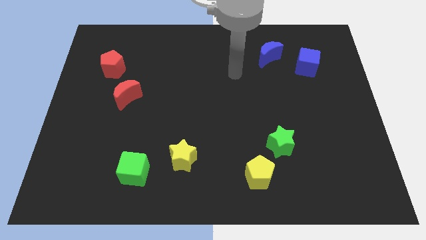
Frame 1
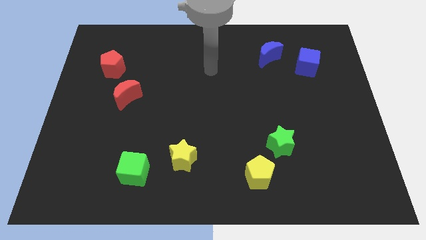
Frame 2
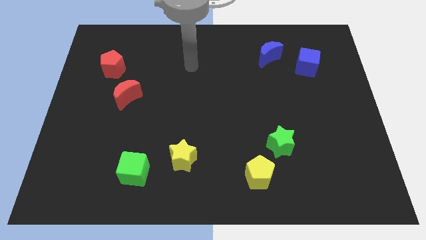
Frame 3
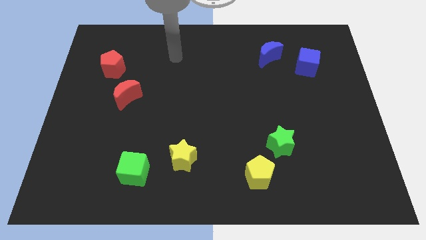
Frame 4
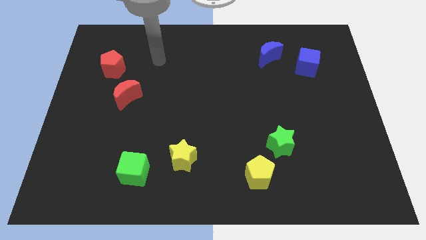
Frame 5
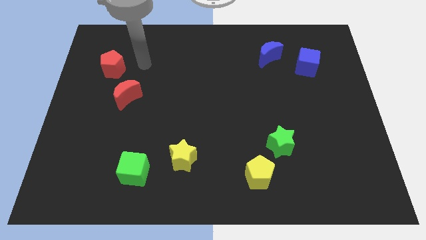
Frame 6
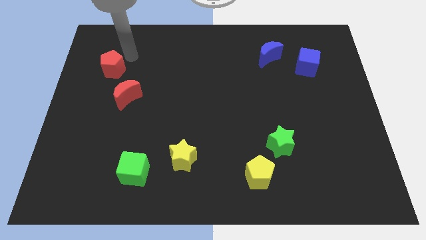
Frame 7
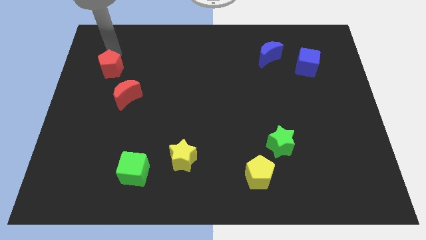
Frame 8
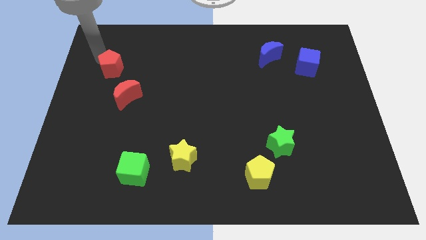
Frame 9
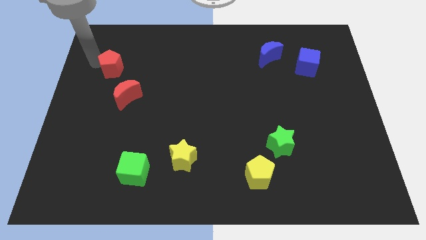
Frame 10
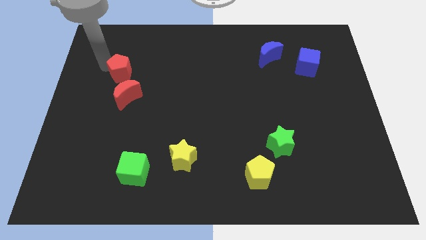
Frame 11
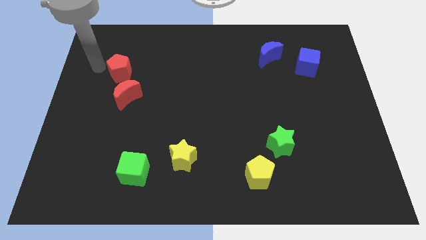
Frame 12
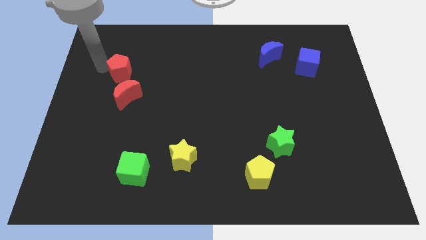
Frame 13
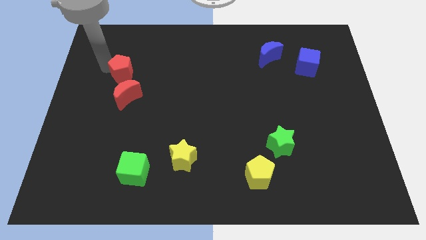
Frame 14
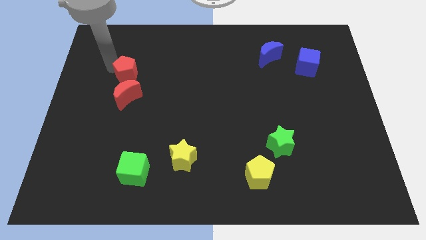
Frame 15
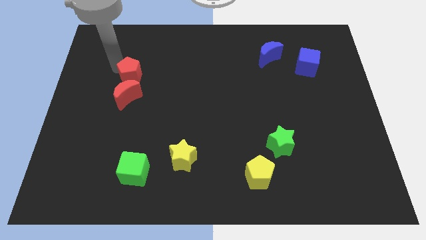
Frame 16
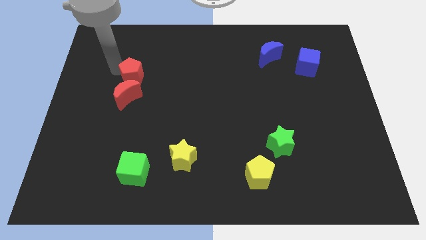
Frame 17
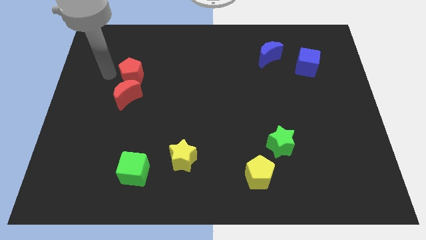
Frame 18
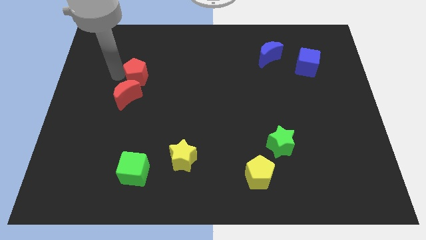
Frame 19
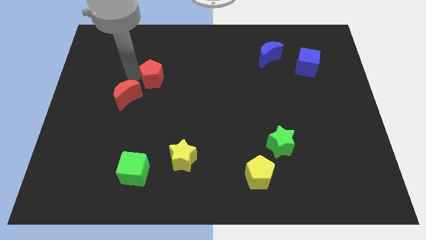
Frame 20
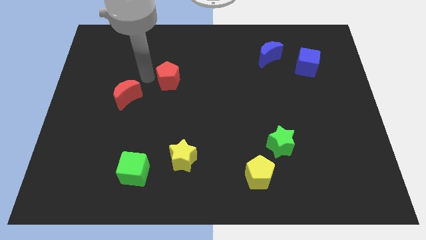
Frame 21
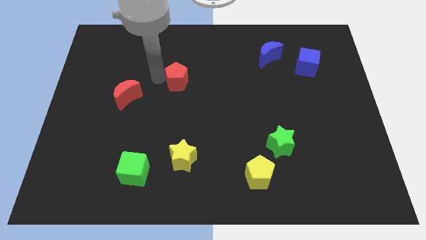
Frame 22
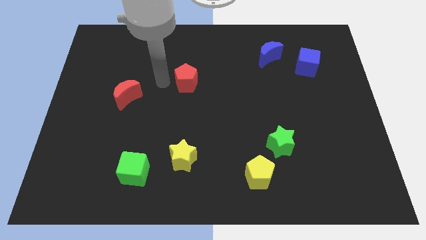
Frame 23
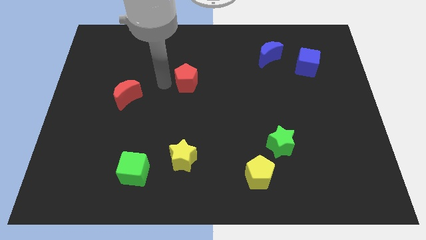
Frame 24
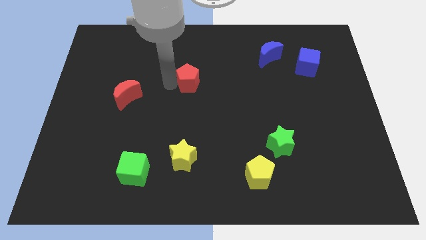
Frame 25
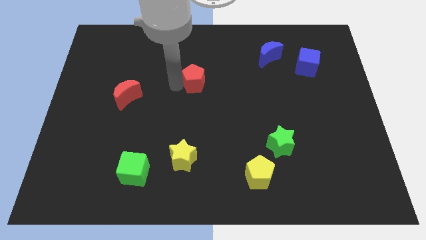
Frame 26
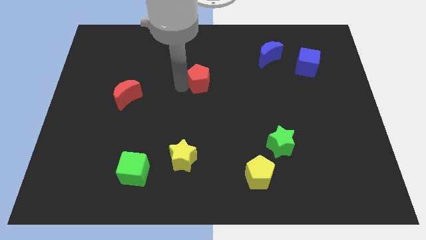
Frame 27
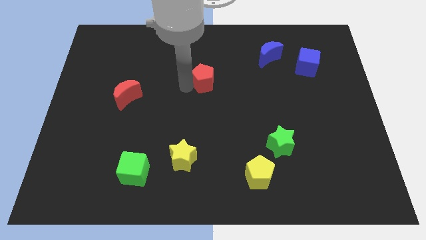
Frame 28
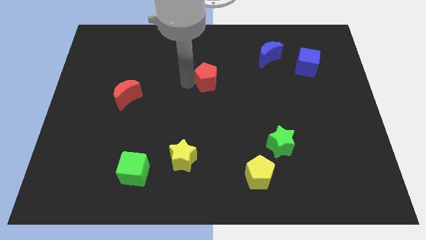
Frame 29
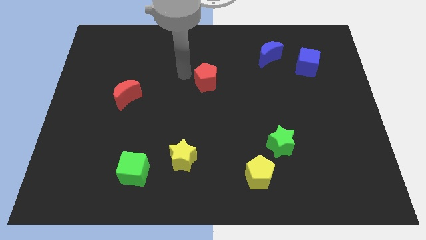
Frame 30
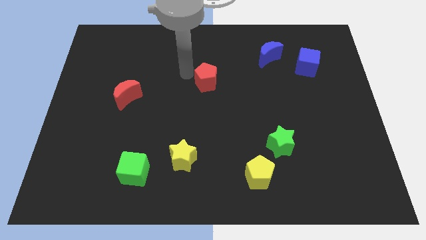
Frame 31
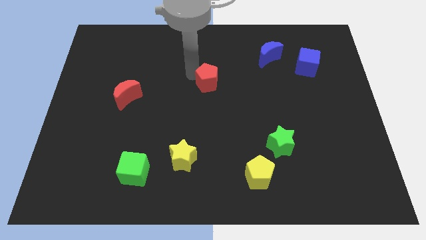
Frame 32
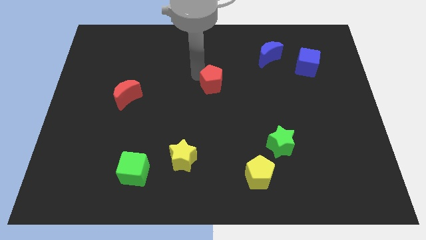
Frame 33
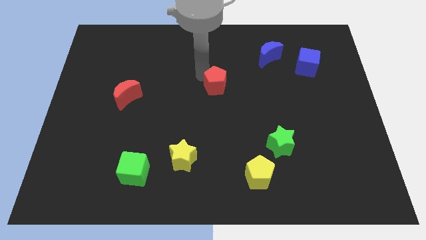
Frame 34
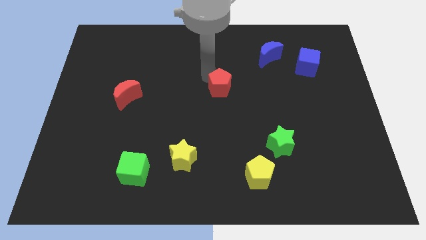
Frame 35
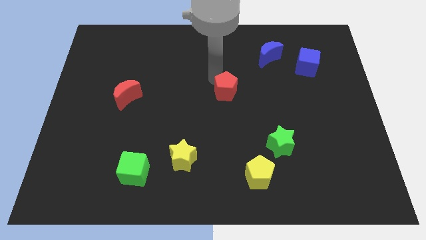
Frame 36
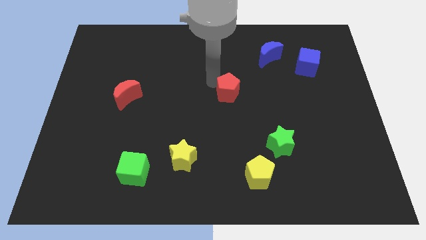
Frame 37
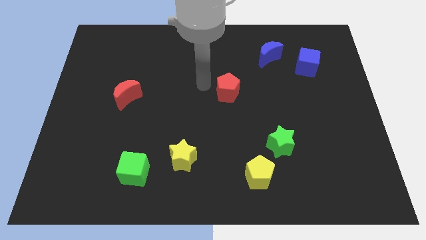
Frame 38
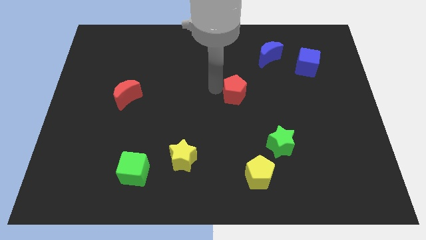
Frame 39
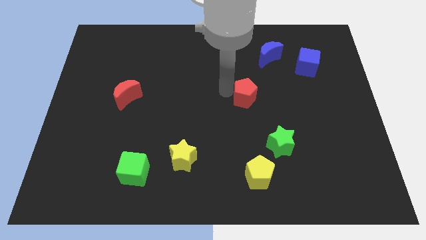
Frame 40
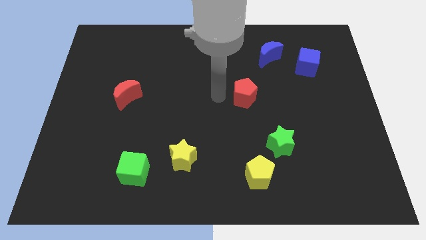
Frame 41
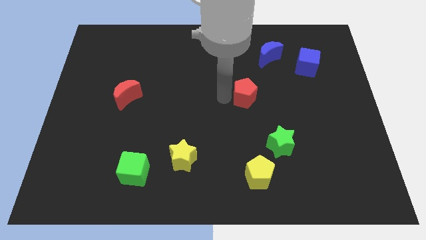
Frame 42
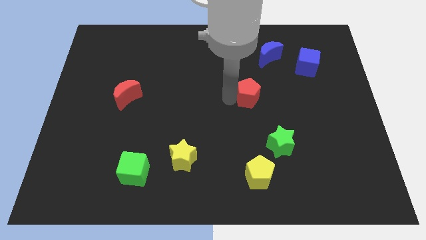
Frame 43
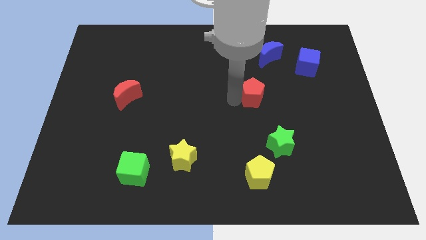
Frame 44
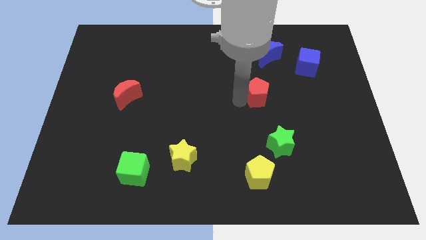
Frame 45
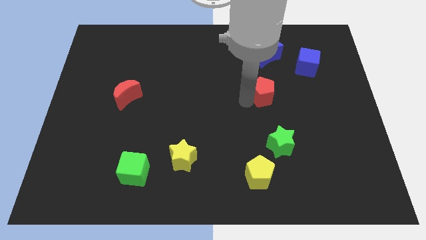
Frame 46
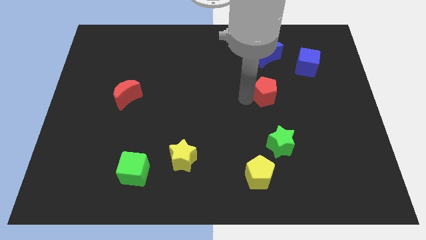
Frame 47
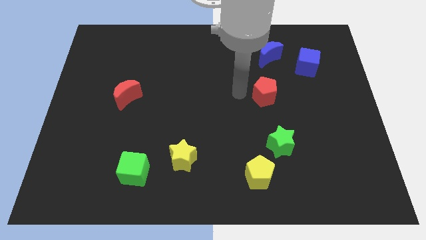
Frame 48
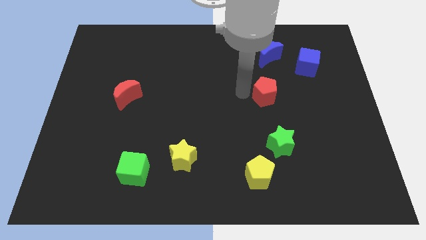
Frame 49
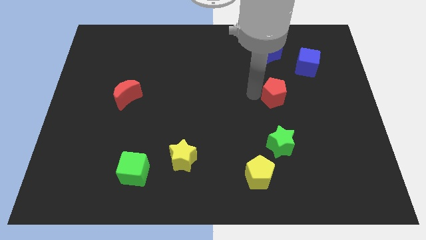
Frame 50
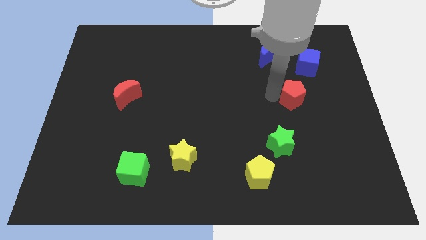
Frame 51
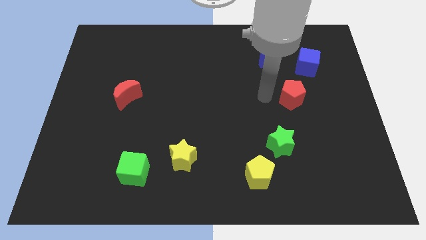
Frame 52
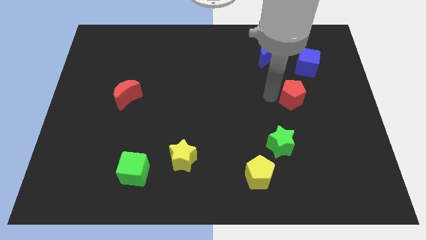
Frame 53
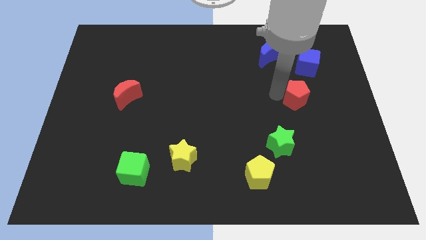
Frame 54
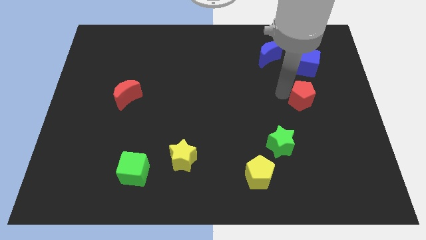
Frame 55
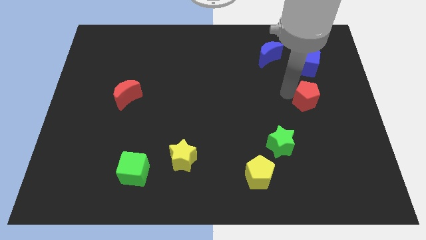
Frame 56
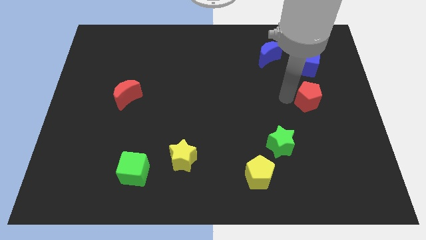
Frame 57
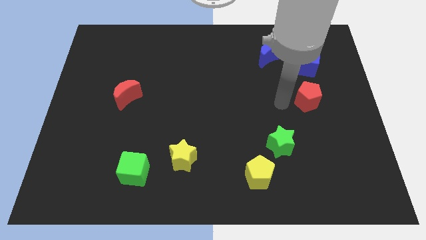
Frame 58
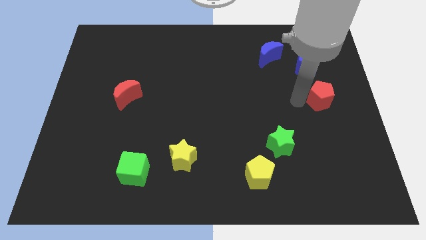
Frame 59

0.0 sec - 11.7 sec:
slide the red pentagon to the right side

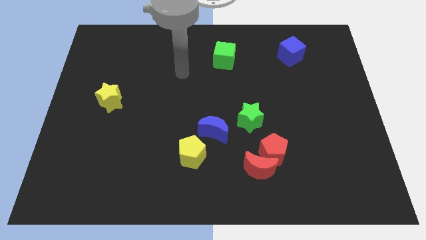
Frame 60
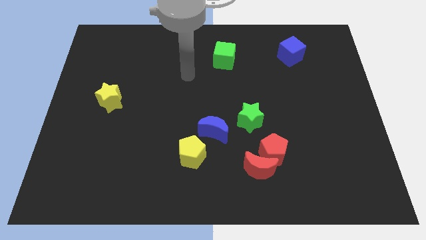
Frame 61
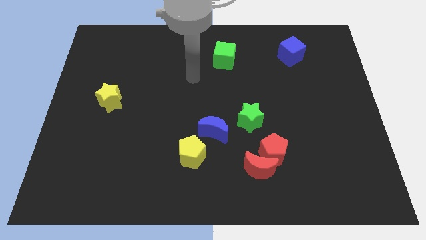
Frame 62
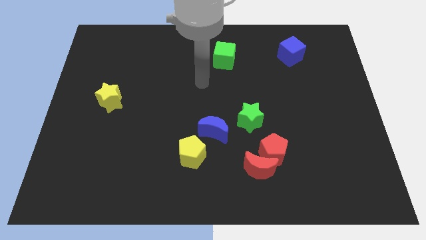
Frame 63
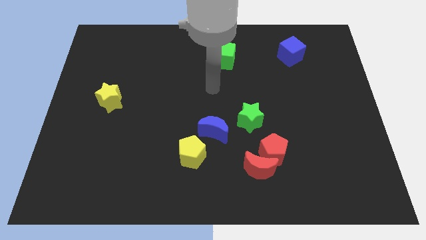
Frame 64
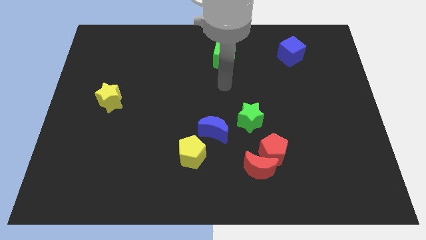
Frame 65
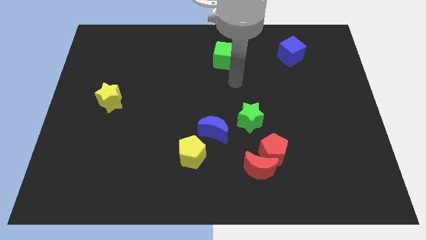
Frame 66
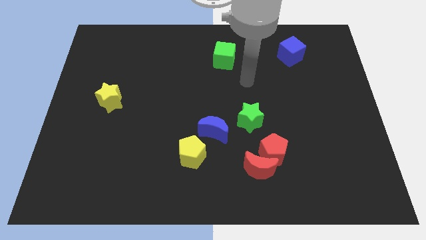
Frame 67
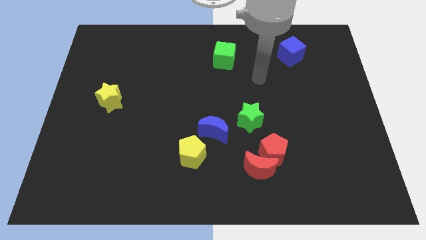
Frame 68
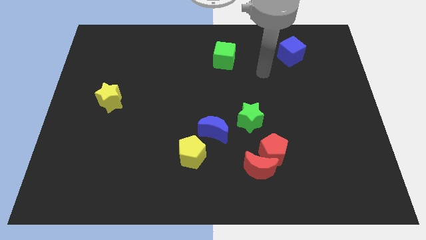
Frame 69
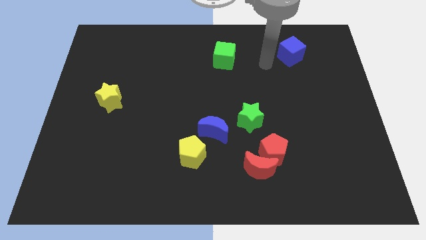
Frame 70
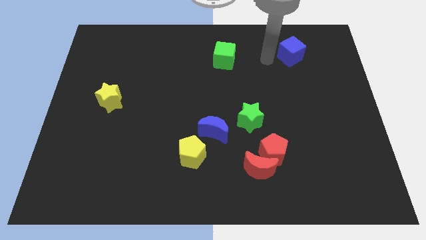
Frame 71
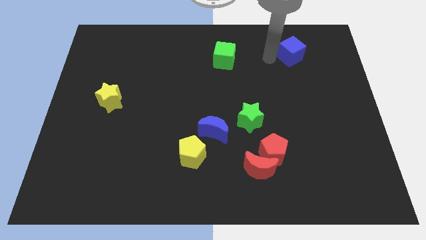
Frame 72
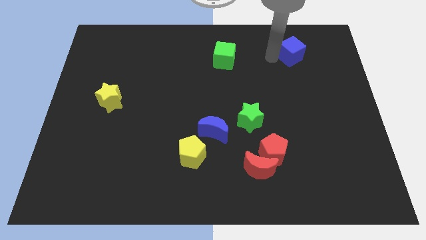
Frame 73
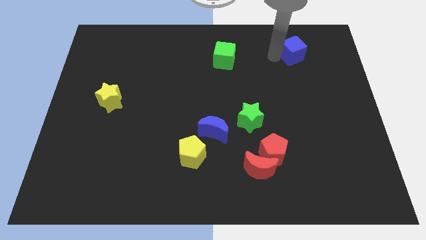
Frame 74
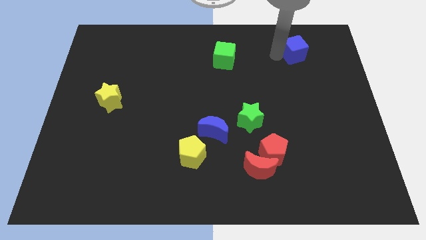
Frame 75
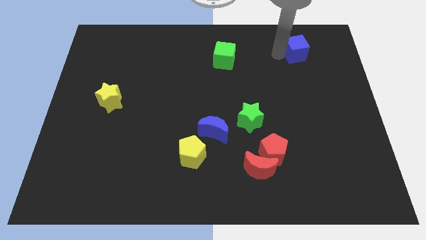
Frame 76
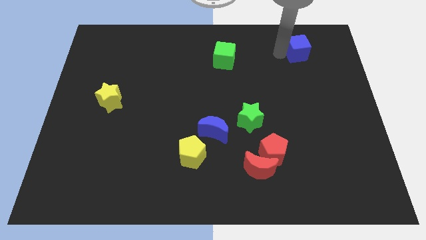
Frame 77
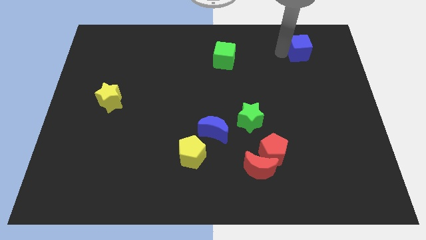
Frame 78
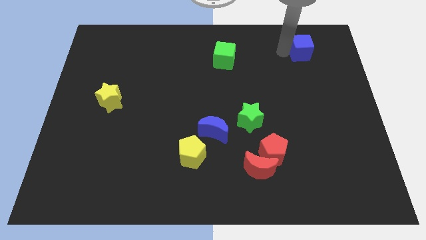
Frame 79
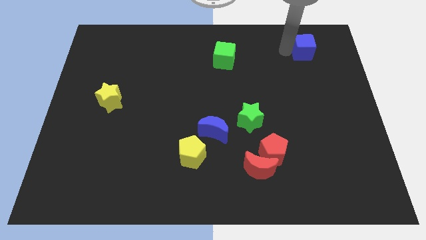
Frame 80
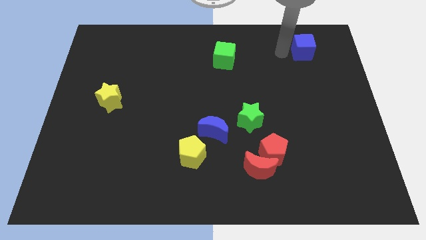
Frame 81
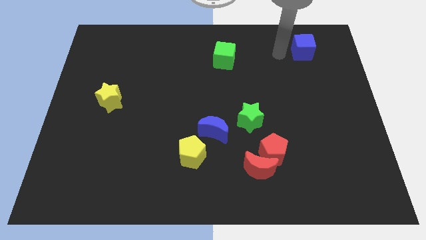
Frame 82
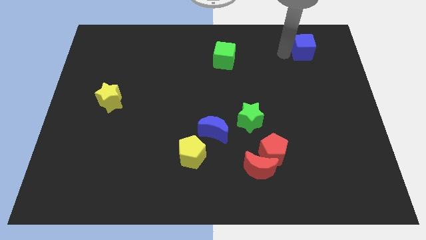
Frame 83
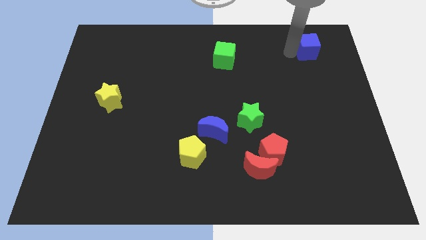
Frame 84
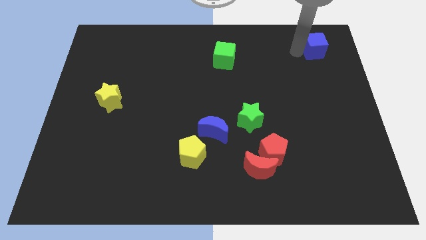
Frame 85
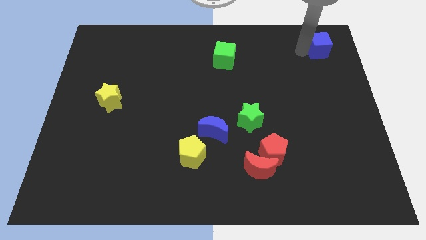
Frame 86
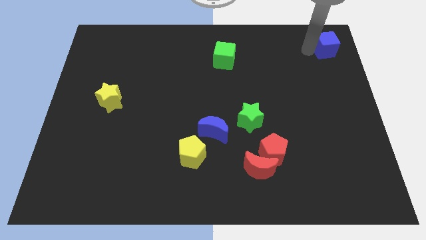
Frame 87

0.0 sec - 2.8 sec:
put the blue cube to the top right corner
